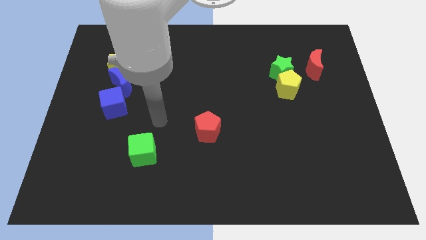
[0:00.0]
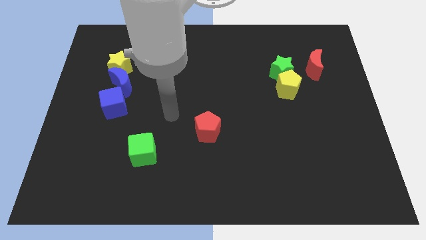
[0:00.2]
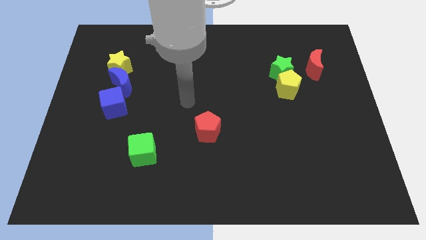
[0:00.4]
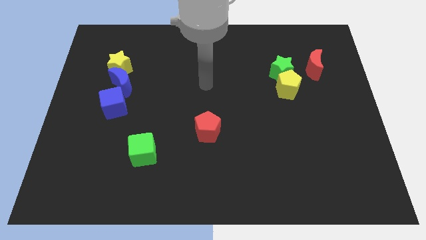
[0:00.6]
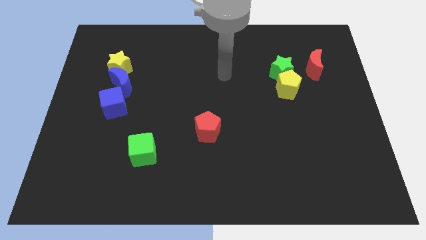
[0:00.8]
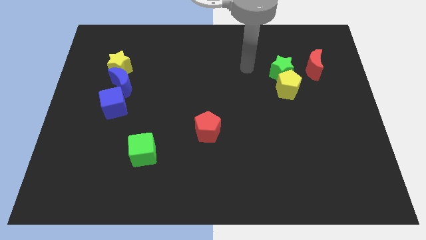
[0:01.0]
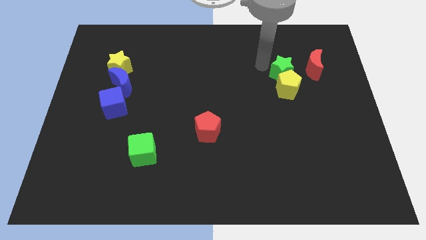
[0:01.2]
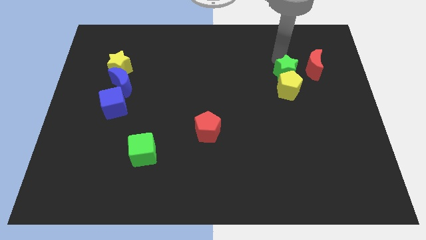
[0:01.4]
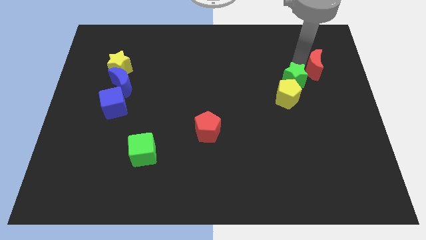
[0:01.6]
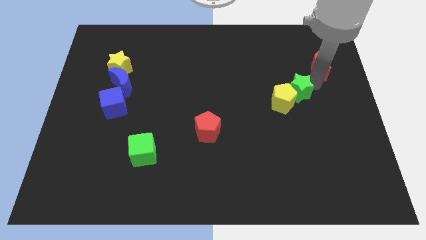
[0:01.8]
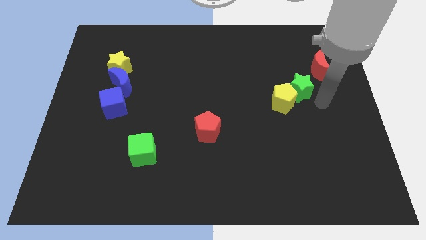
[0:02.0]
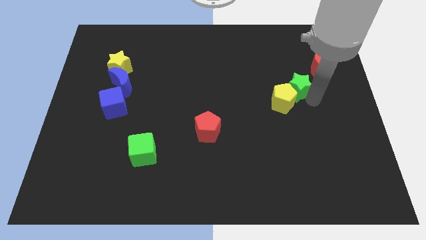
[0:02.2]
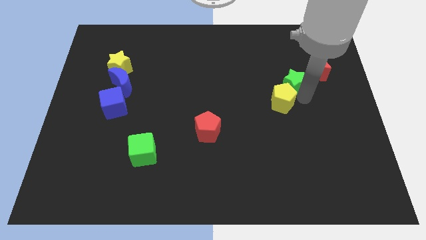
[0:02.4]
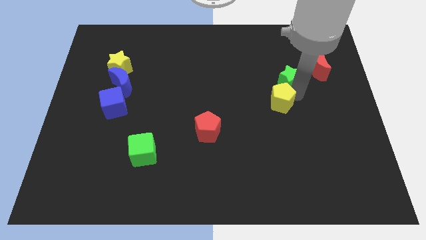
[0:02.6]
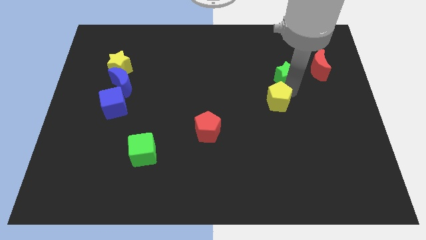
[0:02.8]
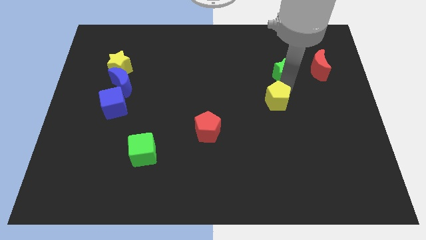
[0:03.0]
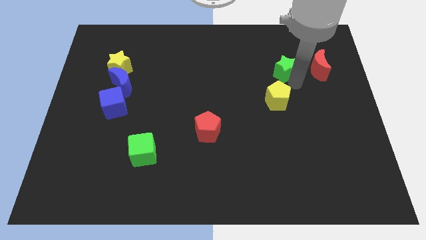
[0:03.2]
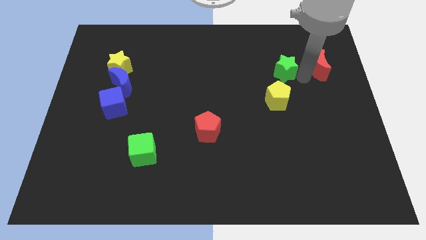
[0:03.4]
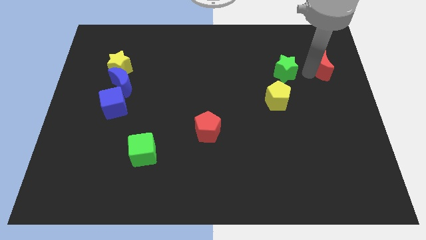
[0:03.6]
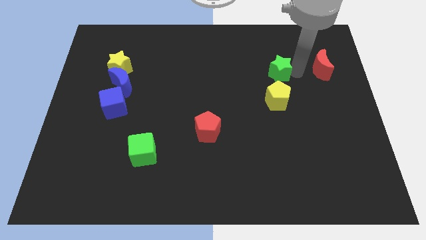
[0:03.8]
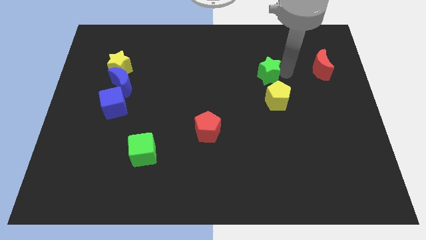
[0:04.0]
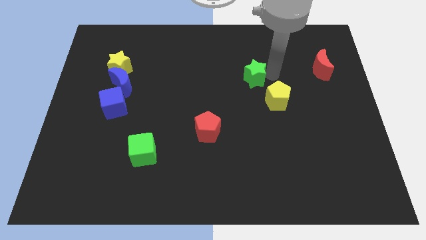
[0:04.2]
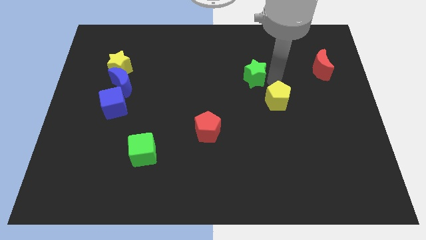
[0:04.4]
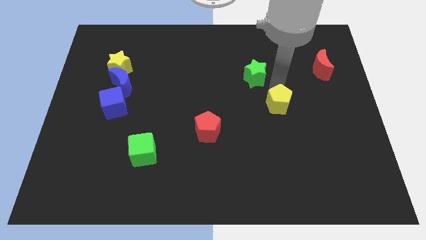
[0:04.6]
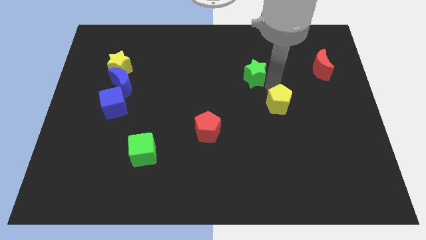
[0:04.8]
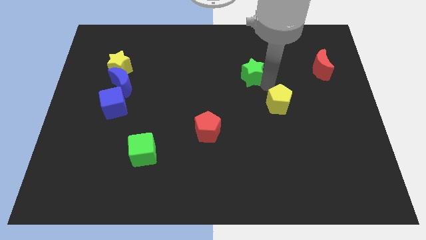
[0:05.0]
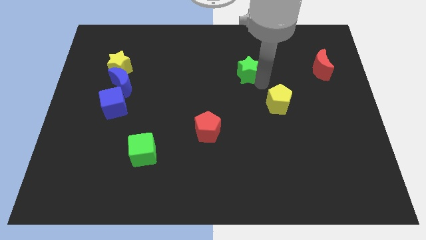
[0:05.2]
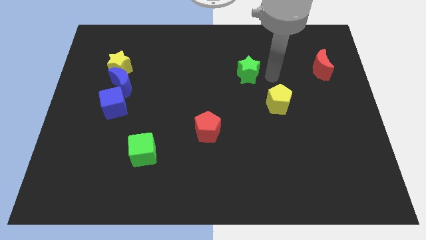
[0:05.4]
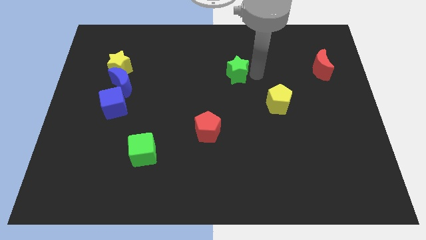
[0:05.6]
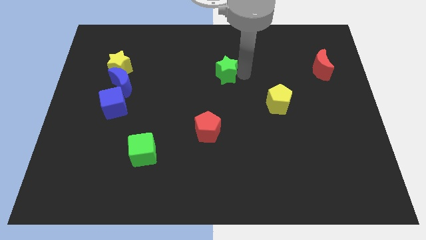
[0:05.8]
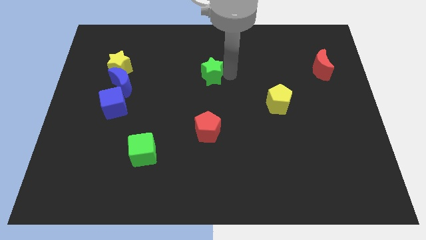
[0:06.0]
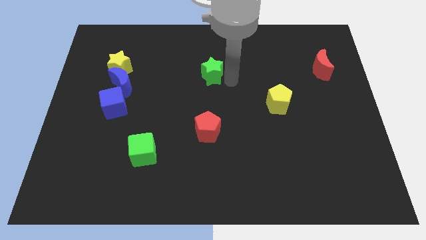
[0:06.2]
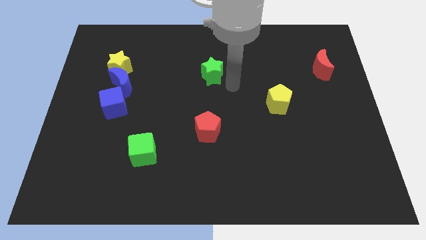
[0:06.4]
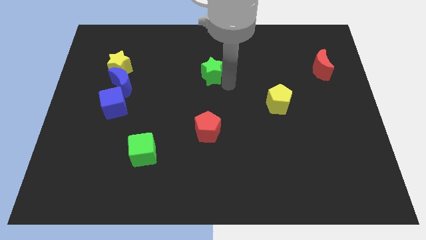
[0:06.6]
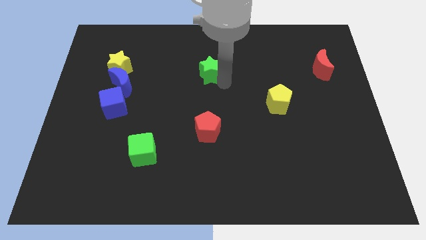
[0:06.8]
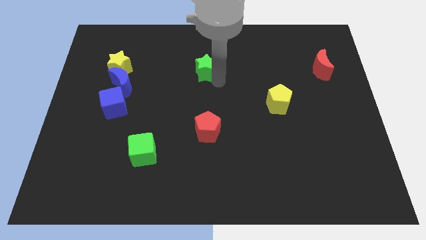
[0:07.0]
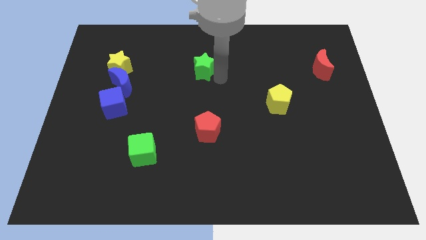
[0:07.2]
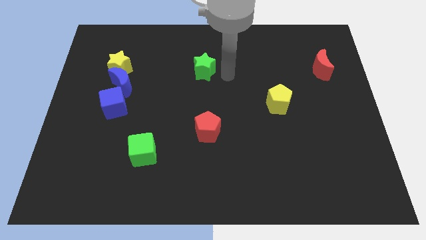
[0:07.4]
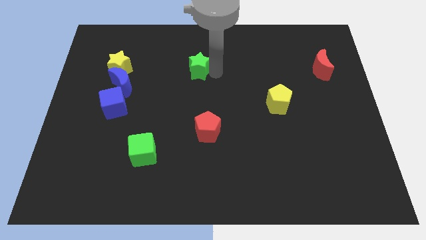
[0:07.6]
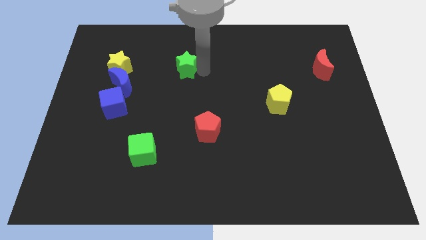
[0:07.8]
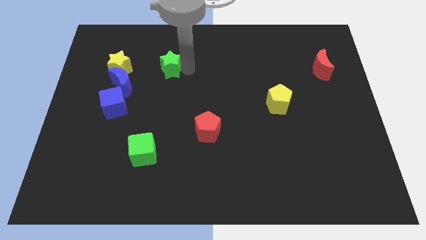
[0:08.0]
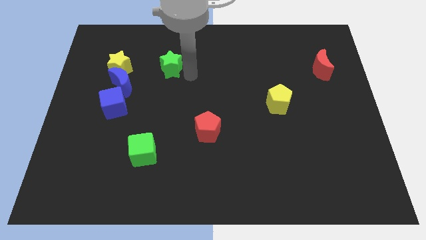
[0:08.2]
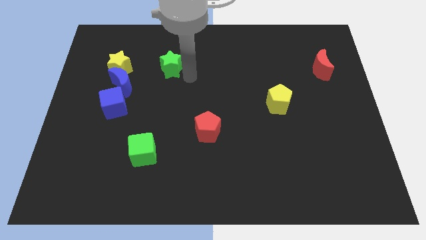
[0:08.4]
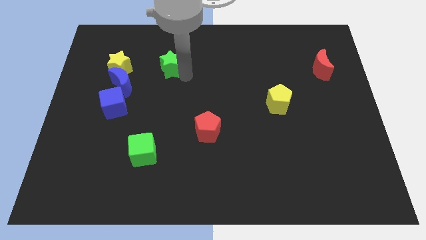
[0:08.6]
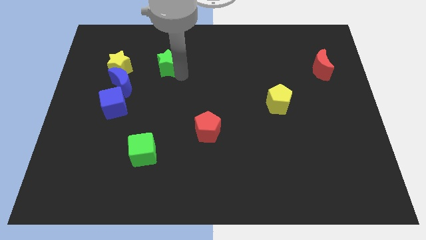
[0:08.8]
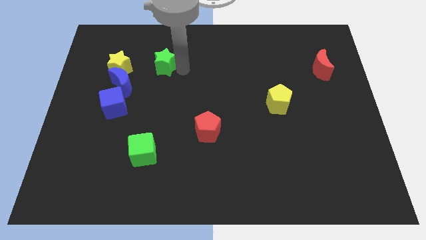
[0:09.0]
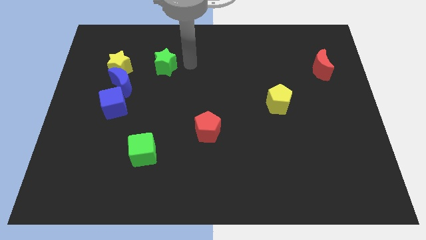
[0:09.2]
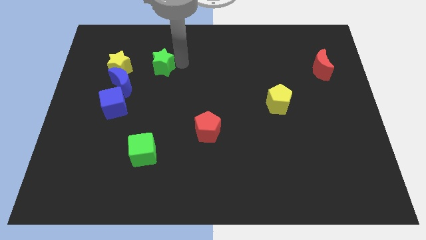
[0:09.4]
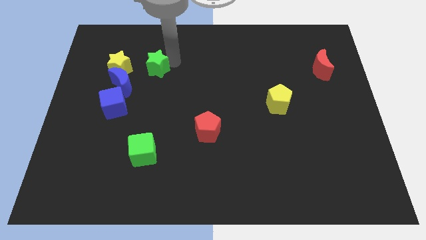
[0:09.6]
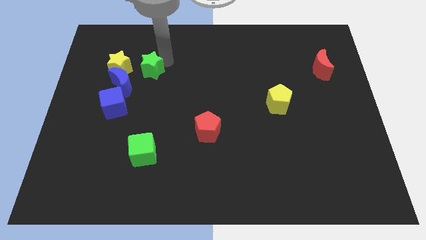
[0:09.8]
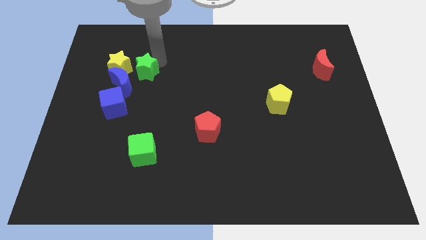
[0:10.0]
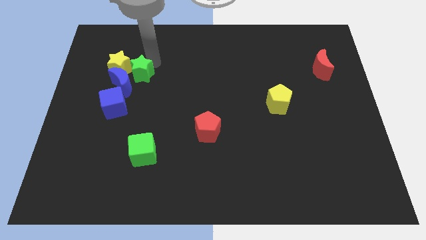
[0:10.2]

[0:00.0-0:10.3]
put the green star to the yellow star

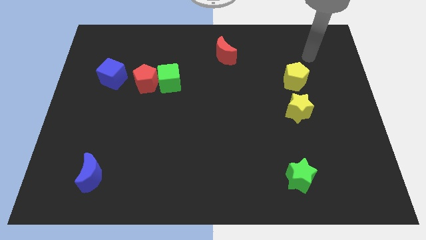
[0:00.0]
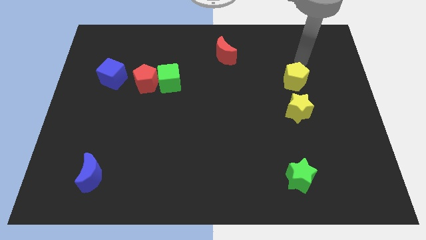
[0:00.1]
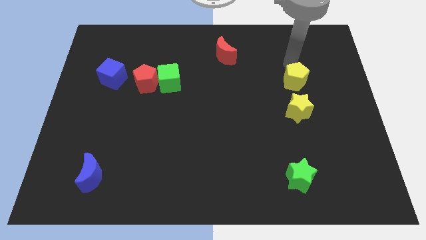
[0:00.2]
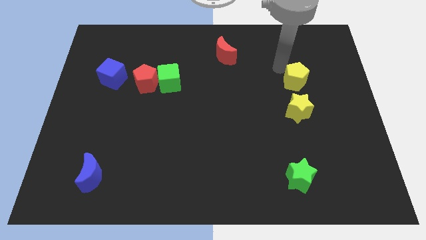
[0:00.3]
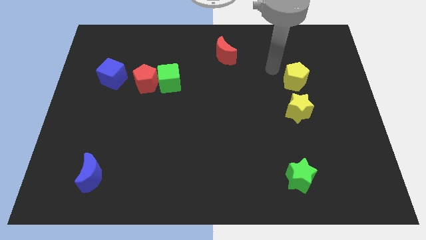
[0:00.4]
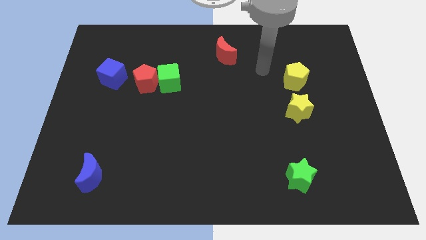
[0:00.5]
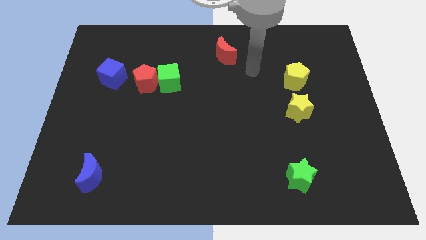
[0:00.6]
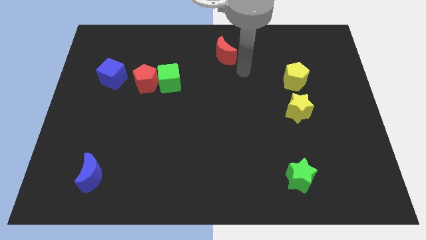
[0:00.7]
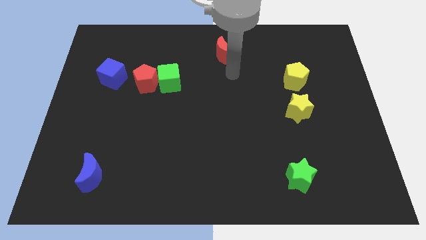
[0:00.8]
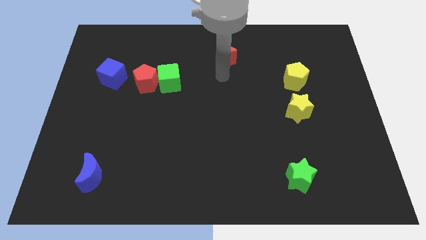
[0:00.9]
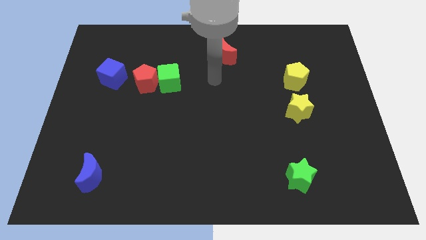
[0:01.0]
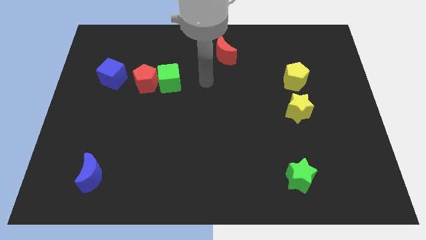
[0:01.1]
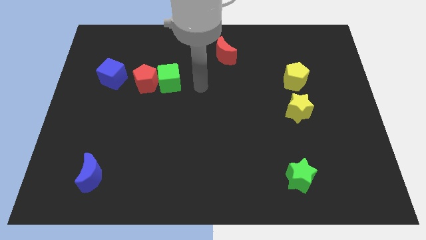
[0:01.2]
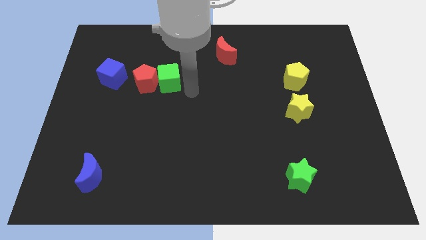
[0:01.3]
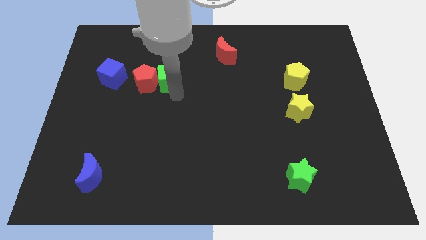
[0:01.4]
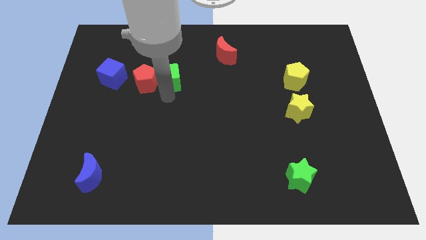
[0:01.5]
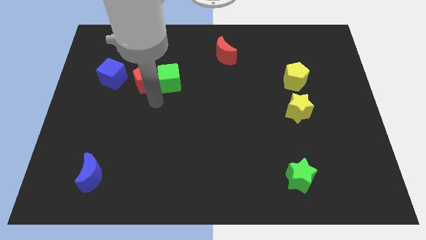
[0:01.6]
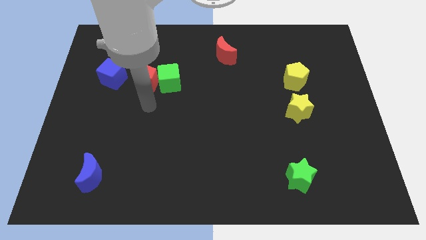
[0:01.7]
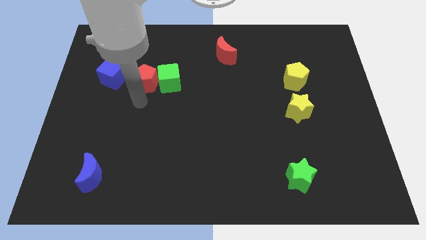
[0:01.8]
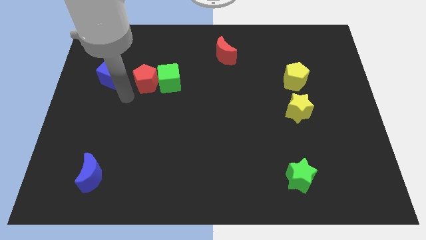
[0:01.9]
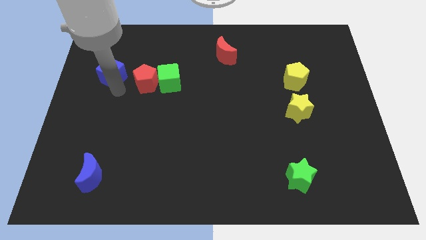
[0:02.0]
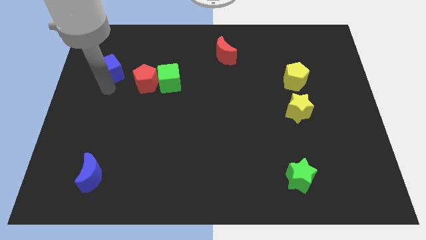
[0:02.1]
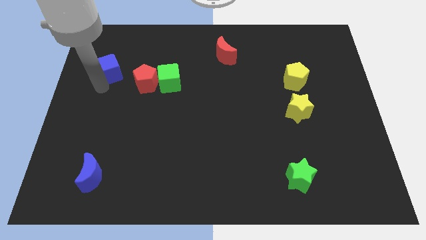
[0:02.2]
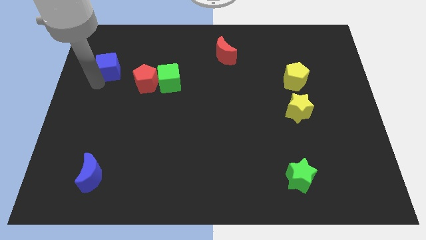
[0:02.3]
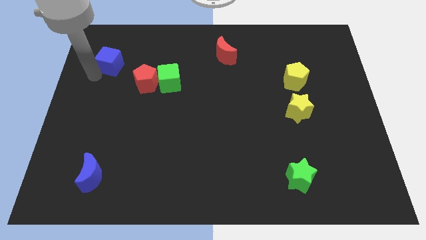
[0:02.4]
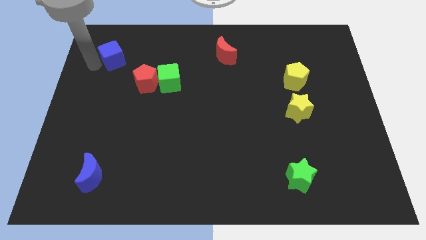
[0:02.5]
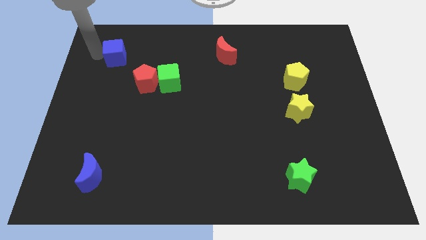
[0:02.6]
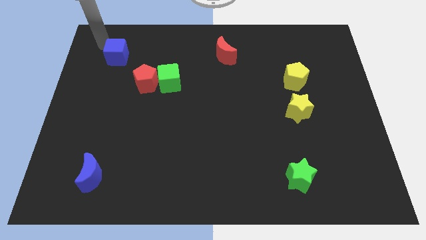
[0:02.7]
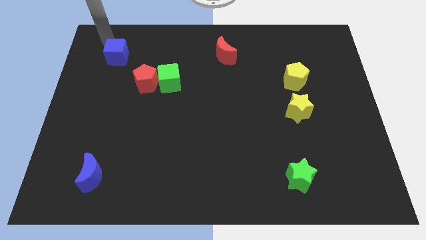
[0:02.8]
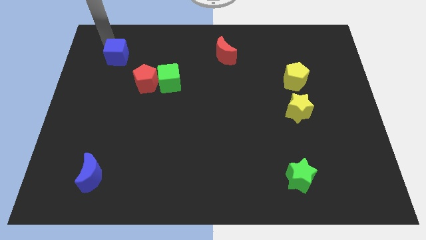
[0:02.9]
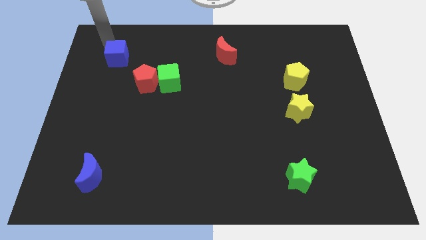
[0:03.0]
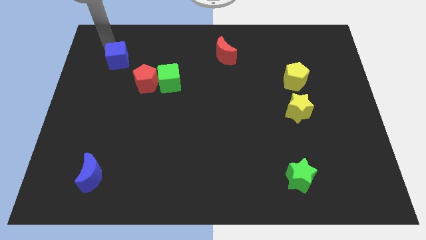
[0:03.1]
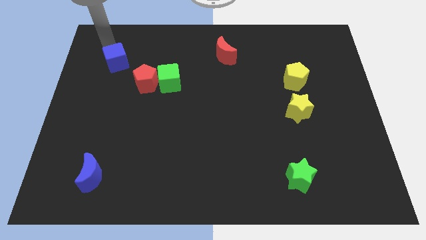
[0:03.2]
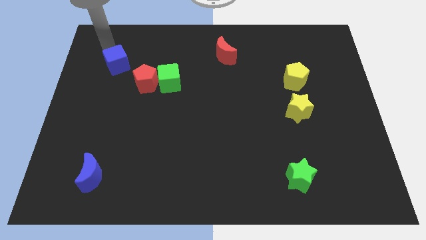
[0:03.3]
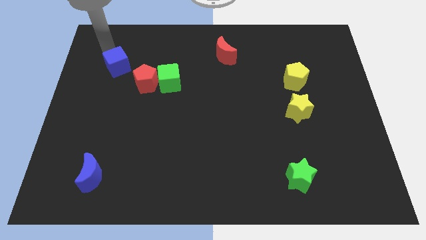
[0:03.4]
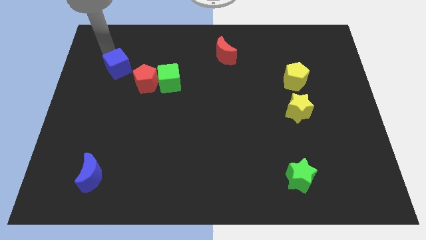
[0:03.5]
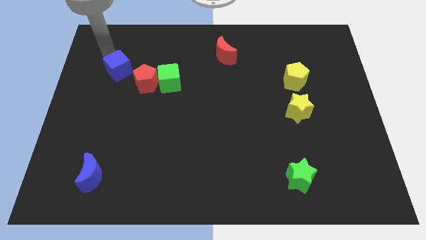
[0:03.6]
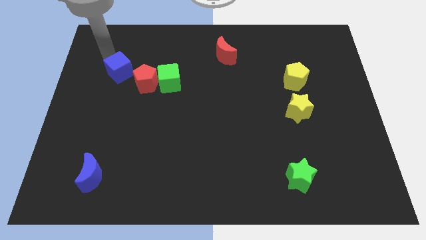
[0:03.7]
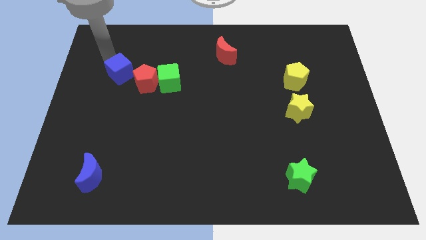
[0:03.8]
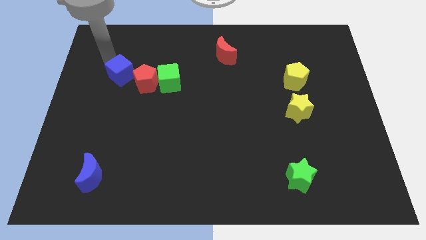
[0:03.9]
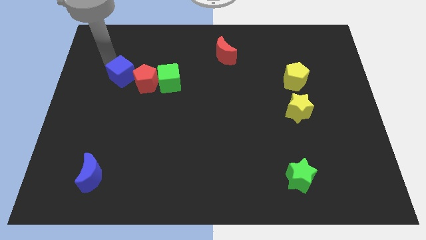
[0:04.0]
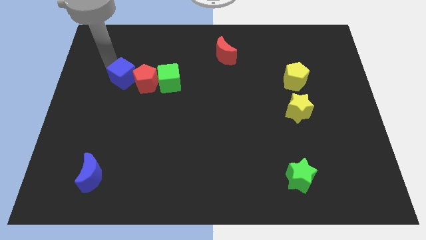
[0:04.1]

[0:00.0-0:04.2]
put the blue cube towards the red pentagon
